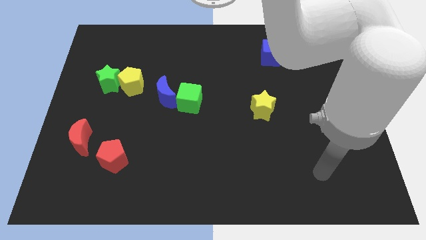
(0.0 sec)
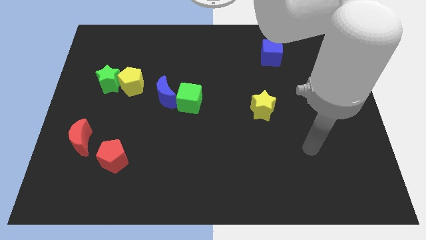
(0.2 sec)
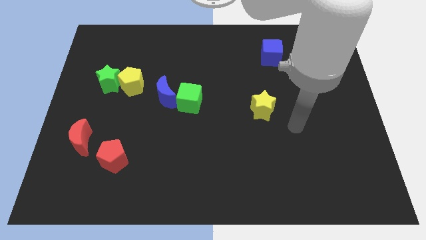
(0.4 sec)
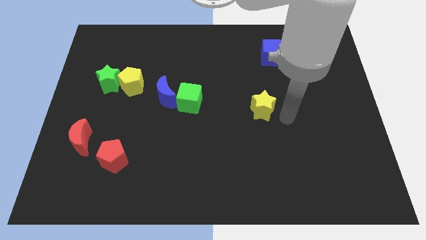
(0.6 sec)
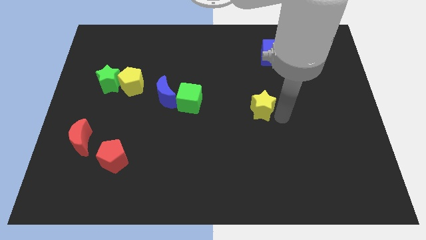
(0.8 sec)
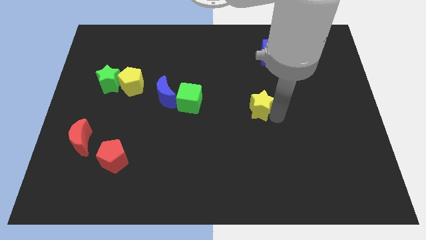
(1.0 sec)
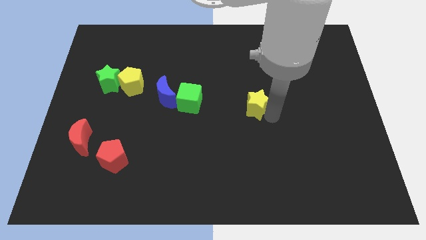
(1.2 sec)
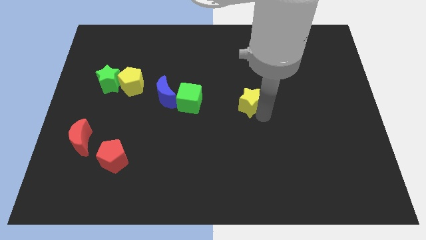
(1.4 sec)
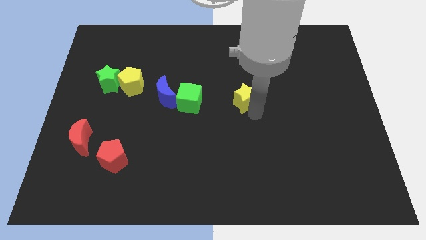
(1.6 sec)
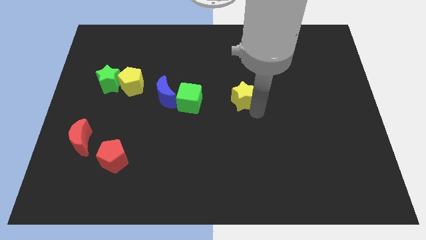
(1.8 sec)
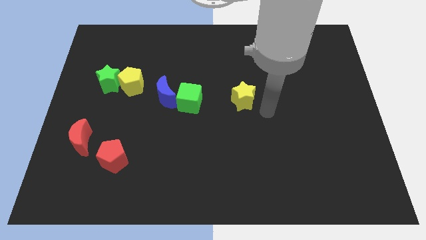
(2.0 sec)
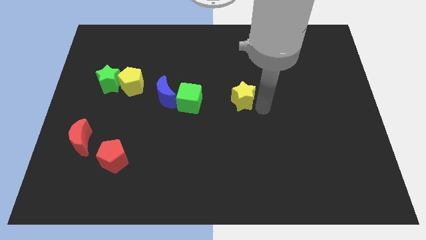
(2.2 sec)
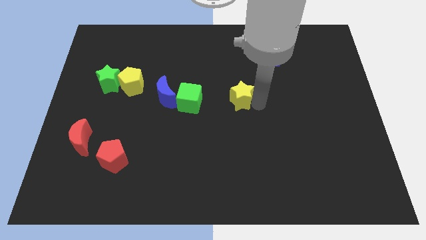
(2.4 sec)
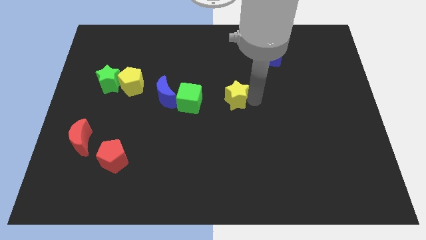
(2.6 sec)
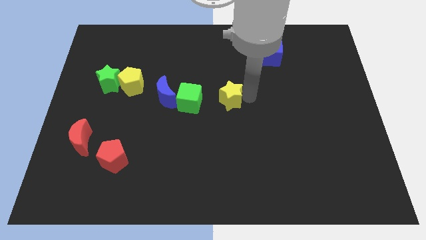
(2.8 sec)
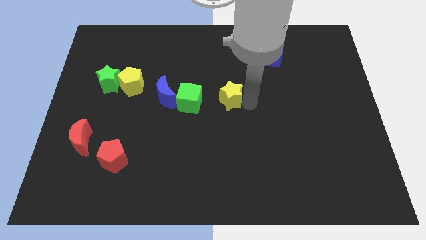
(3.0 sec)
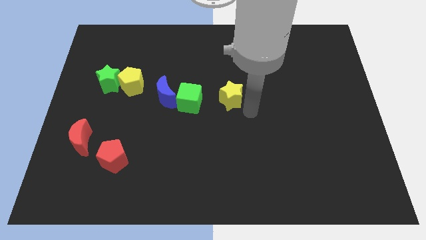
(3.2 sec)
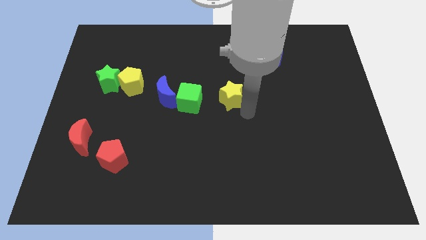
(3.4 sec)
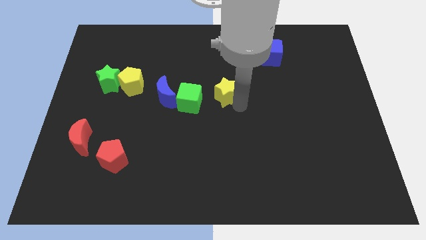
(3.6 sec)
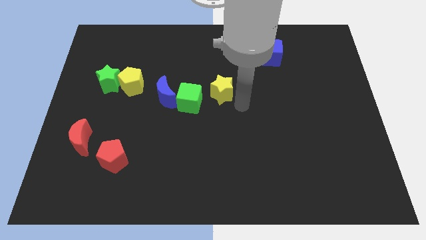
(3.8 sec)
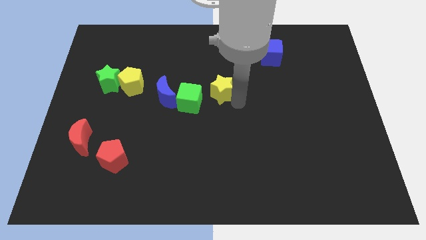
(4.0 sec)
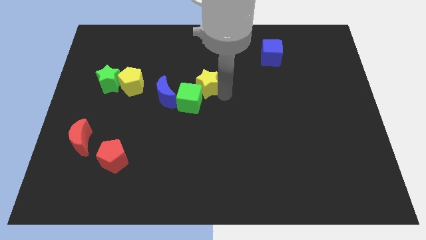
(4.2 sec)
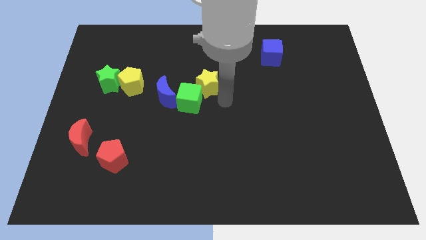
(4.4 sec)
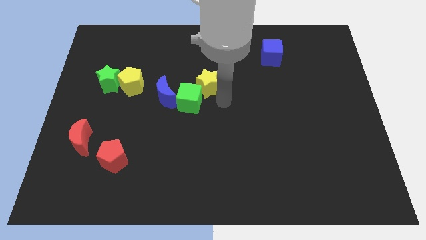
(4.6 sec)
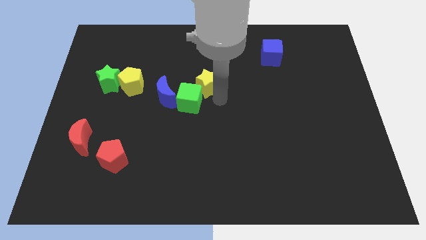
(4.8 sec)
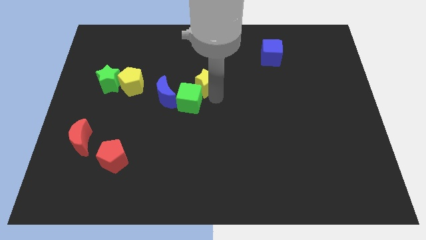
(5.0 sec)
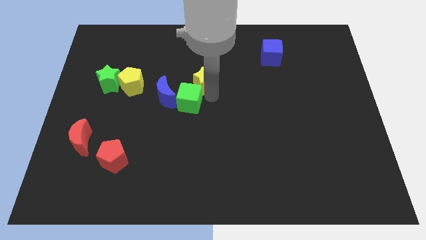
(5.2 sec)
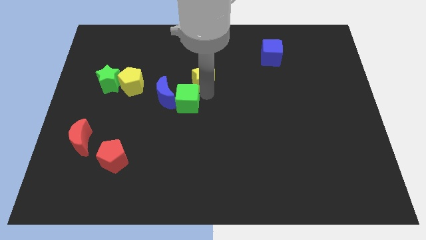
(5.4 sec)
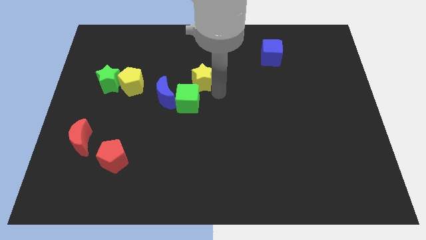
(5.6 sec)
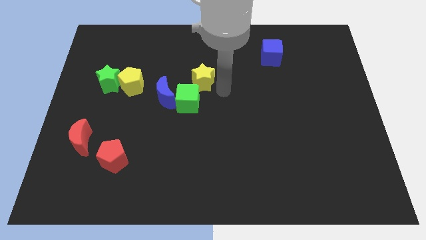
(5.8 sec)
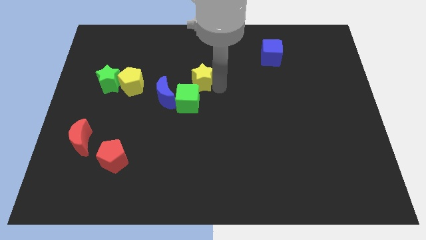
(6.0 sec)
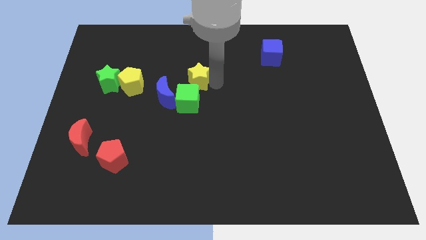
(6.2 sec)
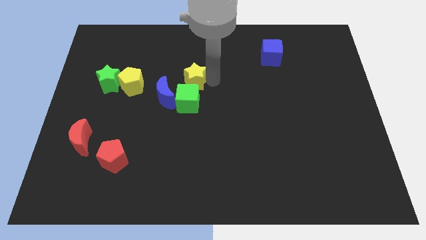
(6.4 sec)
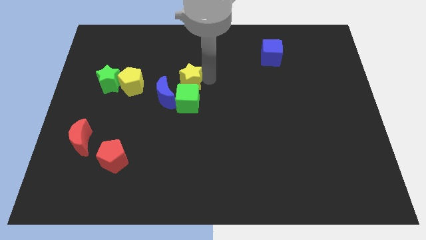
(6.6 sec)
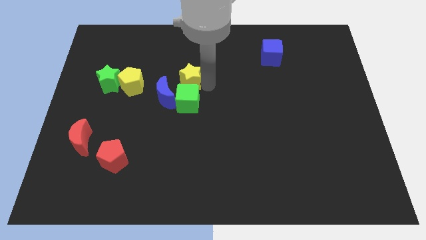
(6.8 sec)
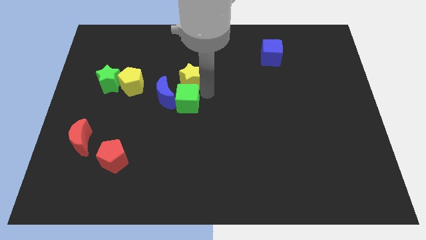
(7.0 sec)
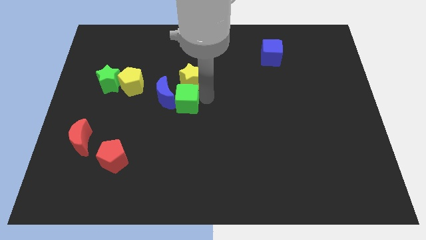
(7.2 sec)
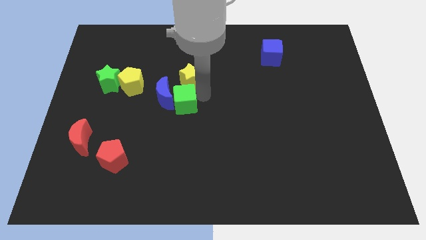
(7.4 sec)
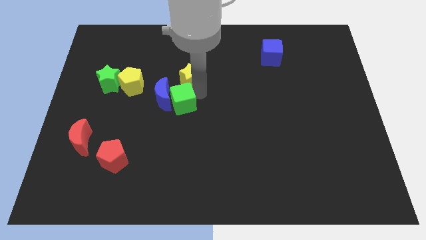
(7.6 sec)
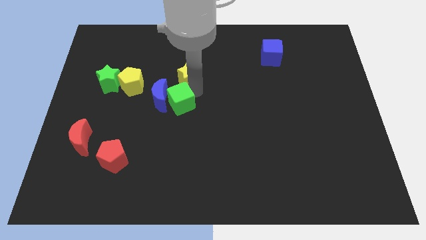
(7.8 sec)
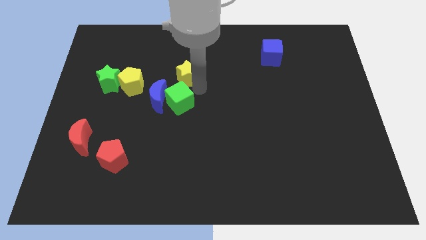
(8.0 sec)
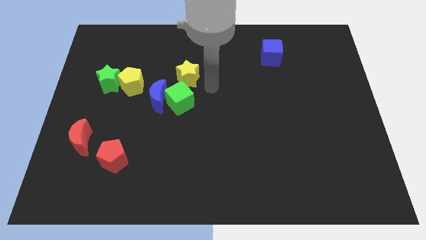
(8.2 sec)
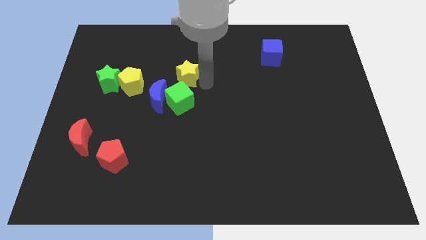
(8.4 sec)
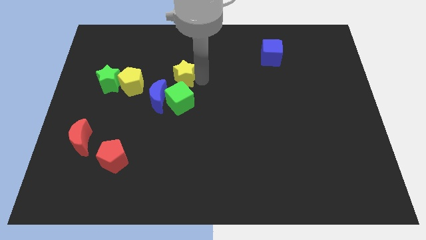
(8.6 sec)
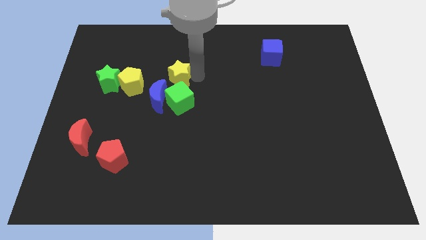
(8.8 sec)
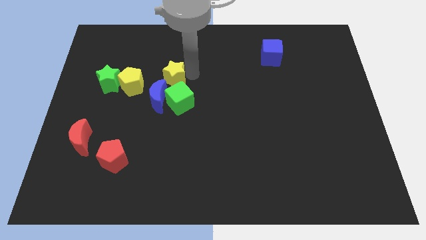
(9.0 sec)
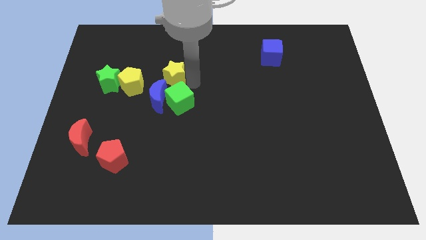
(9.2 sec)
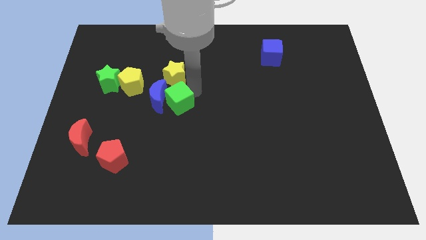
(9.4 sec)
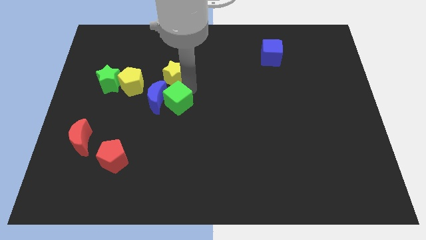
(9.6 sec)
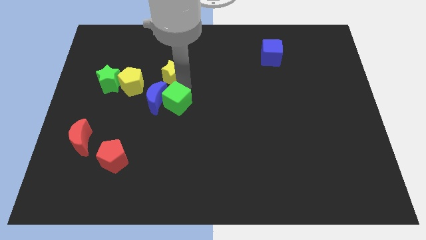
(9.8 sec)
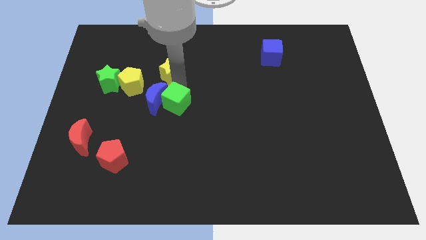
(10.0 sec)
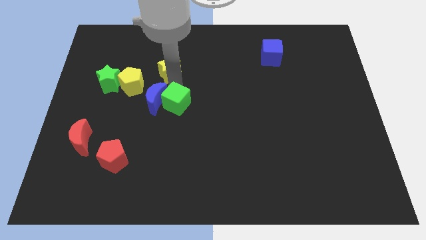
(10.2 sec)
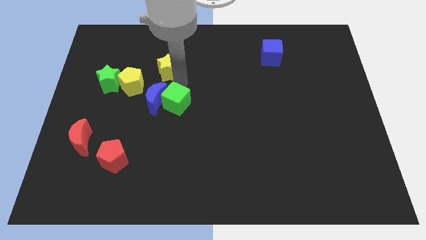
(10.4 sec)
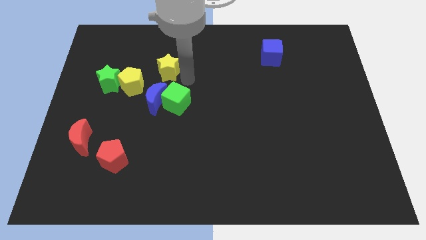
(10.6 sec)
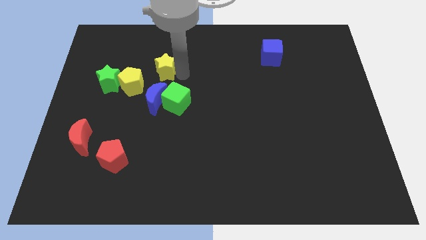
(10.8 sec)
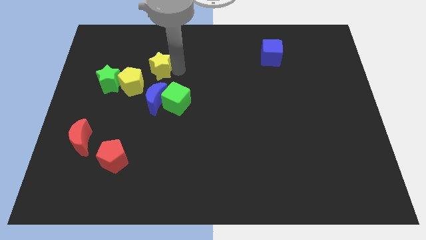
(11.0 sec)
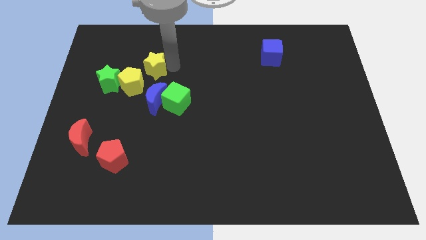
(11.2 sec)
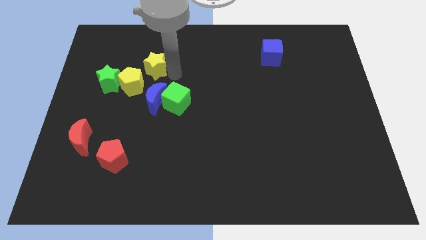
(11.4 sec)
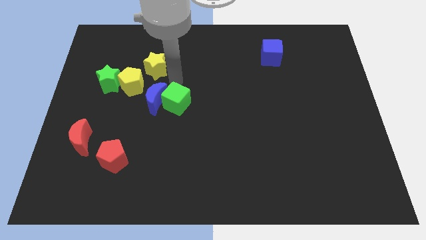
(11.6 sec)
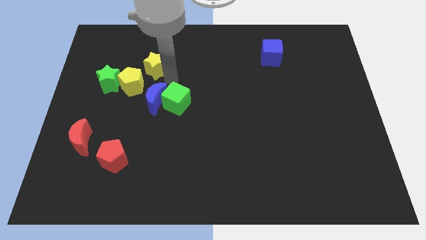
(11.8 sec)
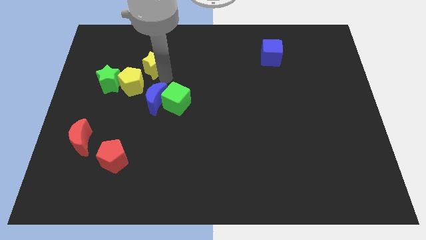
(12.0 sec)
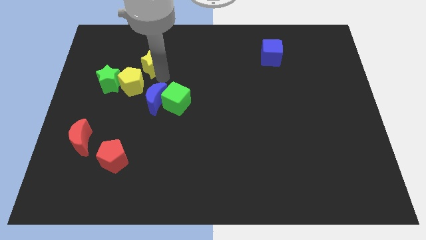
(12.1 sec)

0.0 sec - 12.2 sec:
push the yellow star above the yellow pentagon

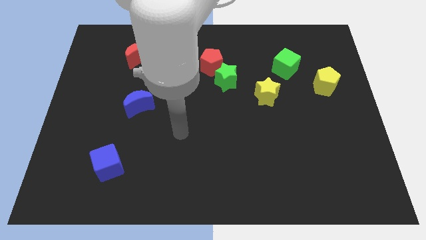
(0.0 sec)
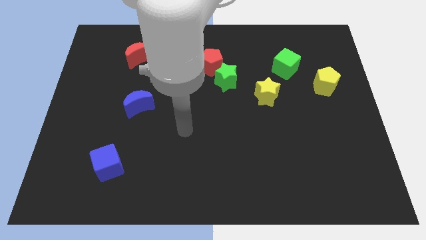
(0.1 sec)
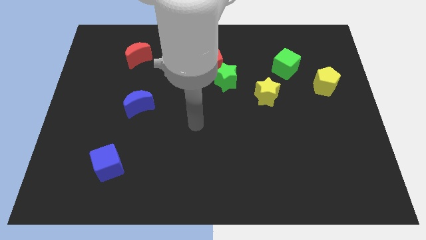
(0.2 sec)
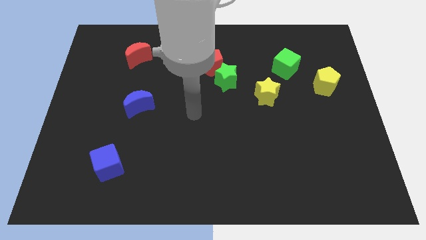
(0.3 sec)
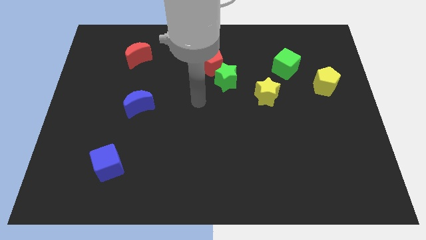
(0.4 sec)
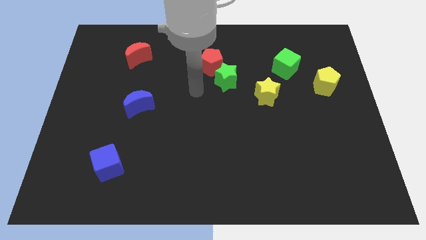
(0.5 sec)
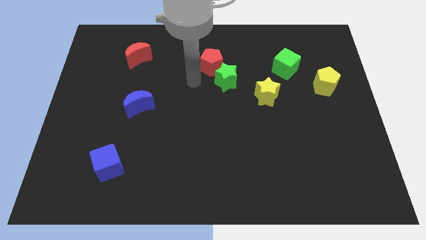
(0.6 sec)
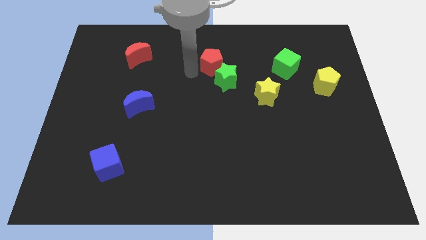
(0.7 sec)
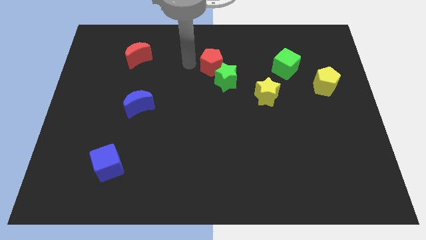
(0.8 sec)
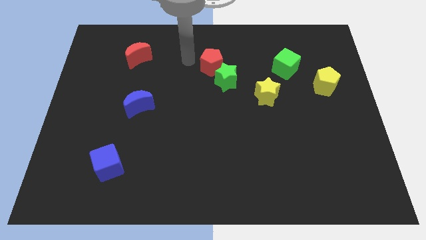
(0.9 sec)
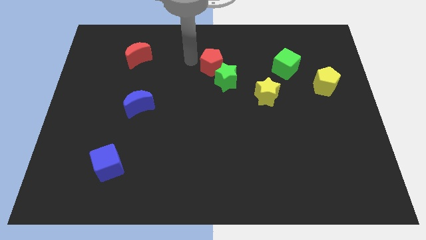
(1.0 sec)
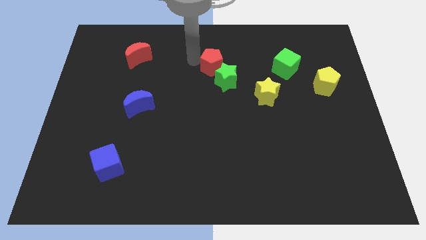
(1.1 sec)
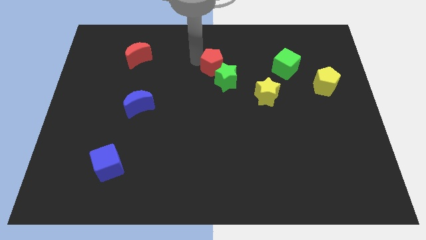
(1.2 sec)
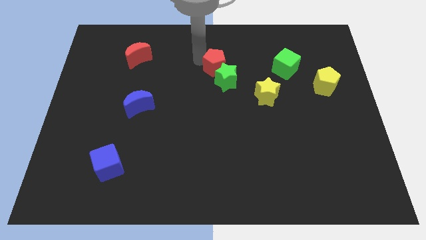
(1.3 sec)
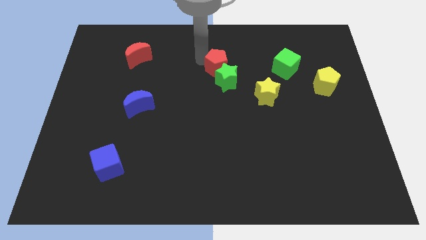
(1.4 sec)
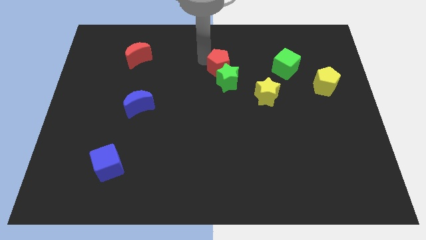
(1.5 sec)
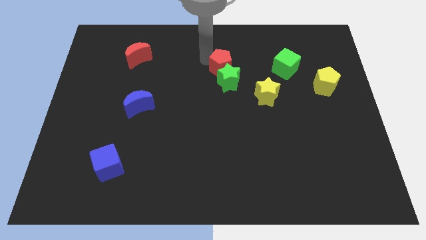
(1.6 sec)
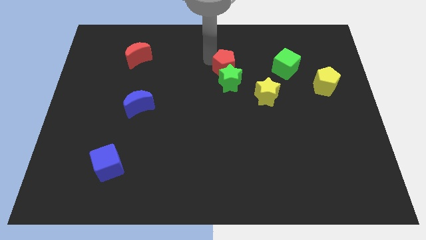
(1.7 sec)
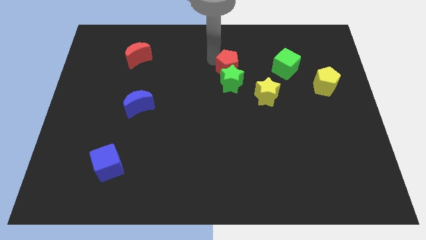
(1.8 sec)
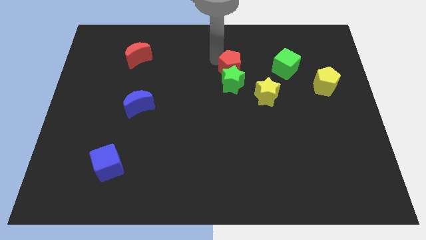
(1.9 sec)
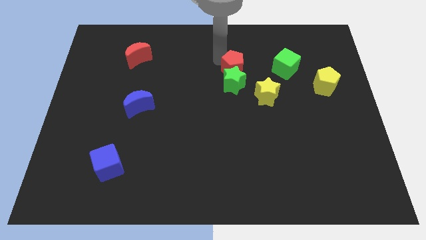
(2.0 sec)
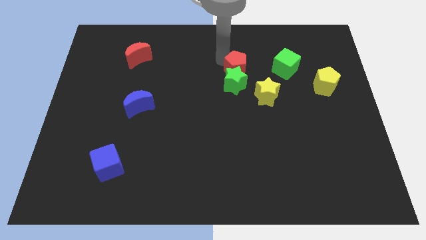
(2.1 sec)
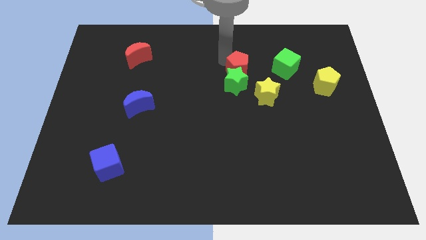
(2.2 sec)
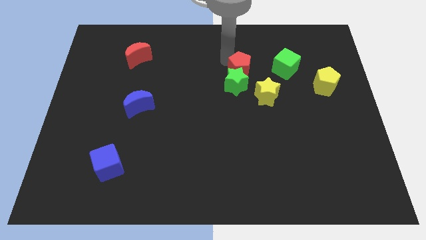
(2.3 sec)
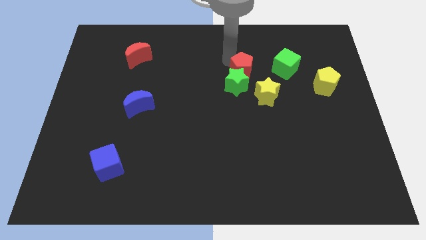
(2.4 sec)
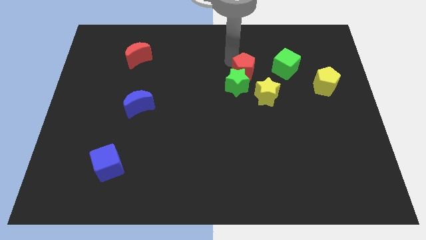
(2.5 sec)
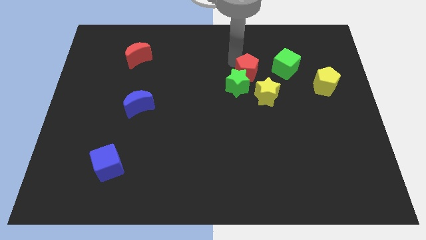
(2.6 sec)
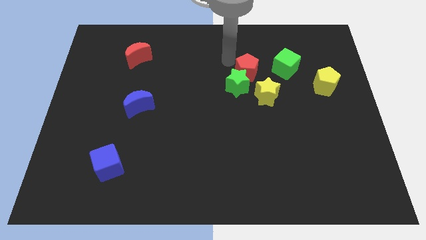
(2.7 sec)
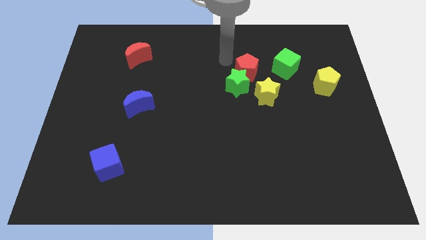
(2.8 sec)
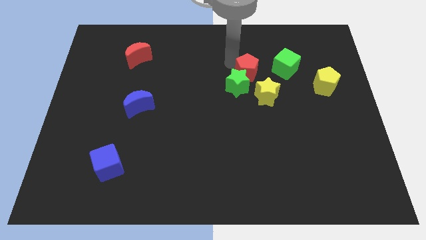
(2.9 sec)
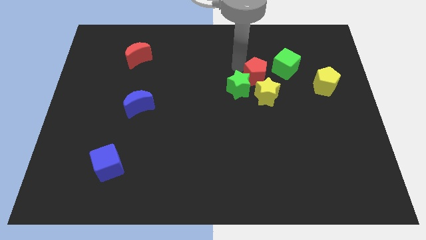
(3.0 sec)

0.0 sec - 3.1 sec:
move the red pentagon just right of the green star
